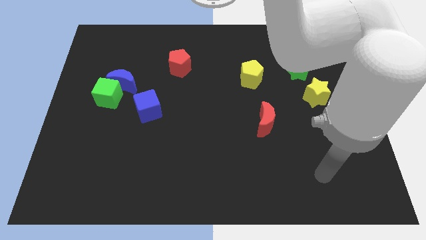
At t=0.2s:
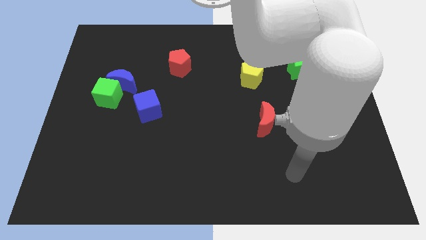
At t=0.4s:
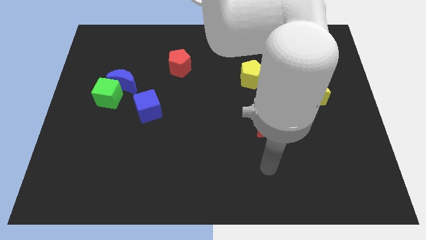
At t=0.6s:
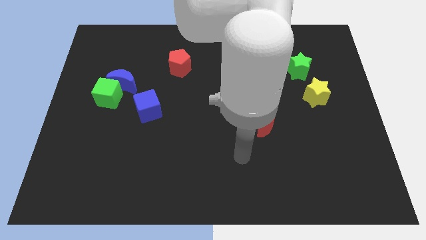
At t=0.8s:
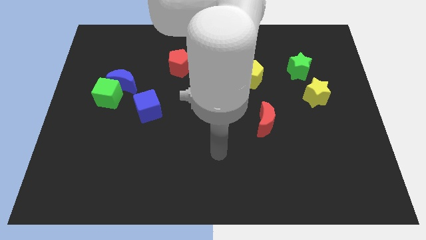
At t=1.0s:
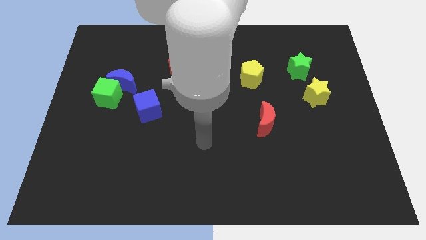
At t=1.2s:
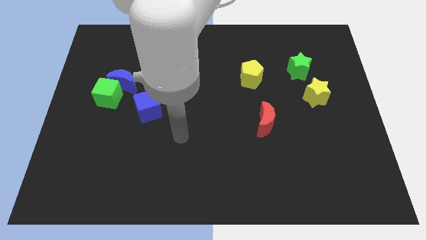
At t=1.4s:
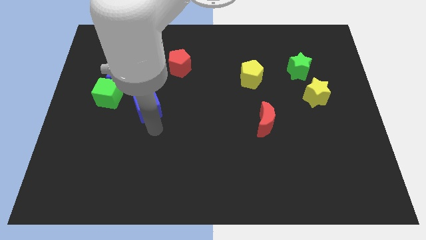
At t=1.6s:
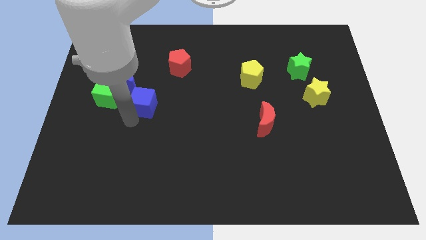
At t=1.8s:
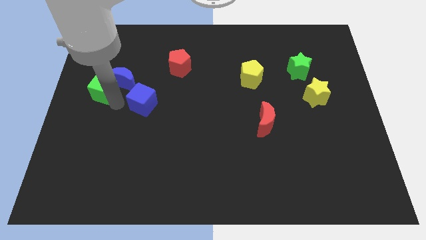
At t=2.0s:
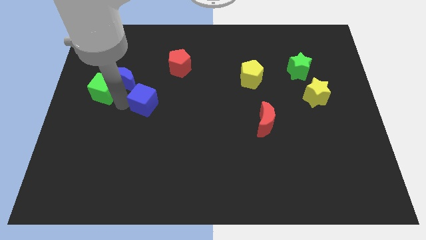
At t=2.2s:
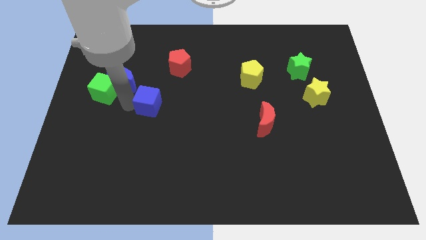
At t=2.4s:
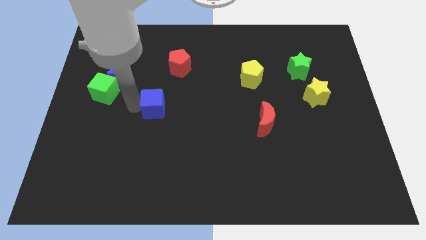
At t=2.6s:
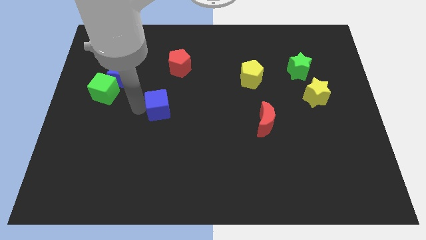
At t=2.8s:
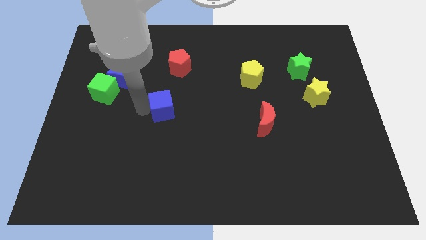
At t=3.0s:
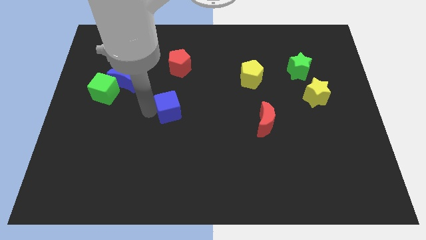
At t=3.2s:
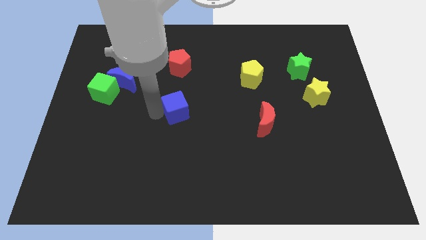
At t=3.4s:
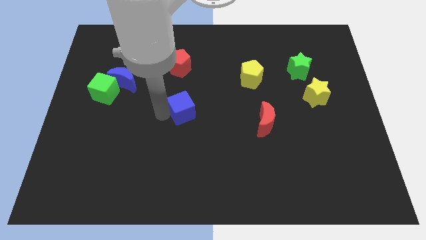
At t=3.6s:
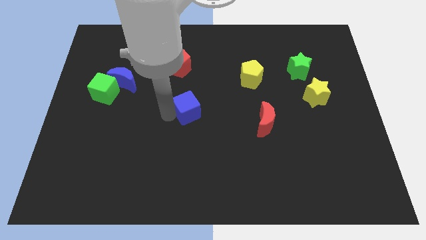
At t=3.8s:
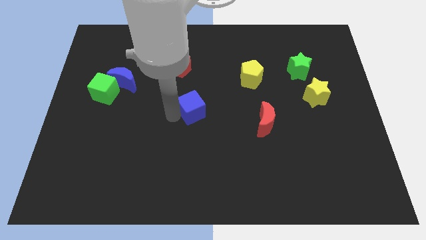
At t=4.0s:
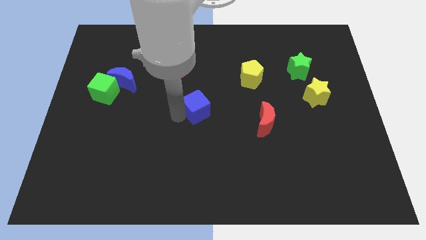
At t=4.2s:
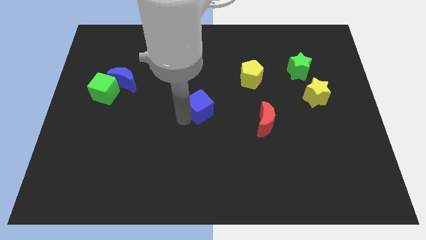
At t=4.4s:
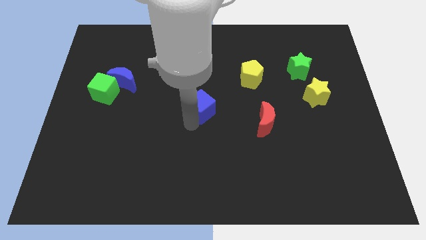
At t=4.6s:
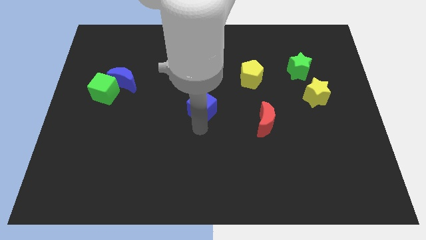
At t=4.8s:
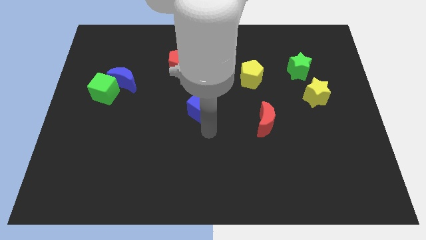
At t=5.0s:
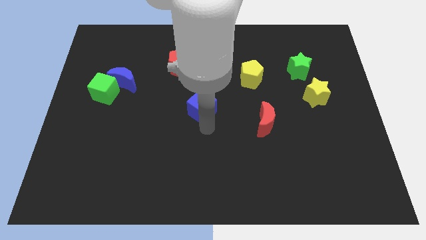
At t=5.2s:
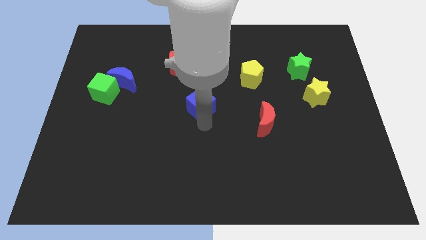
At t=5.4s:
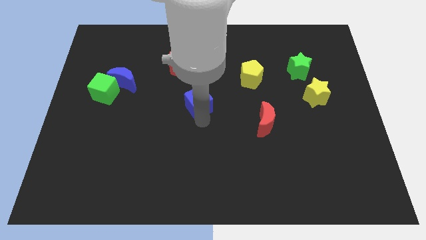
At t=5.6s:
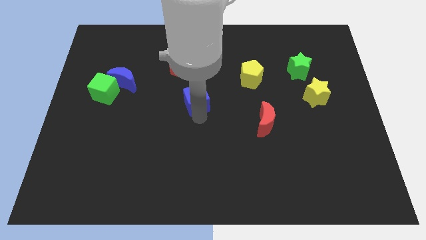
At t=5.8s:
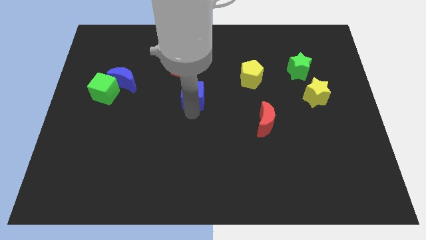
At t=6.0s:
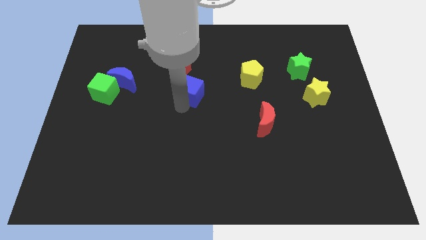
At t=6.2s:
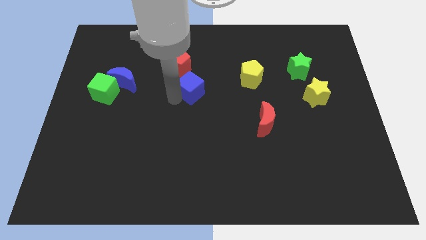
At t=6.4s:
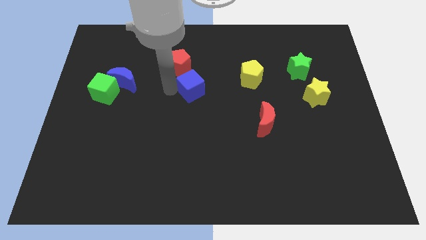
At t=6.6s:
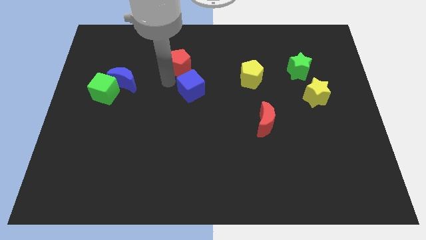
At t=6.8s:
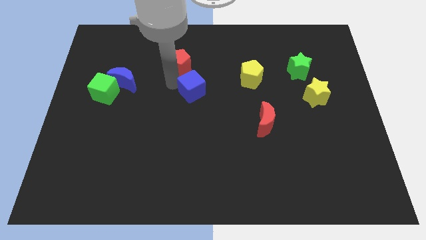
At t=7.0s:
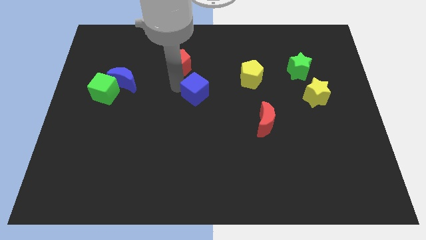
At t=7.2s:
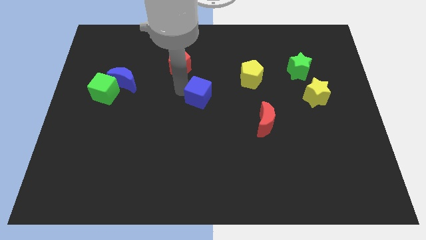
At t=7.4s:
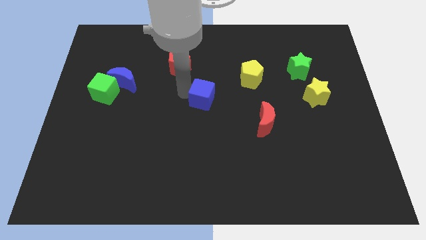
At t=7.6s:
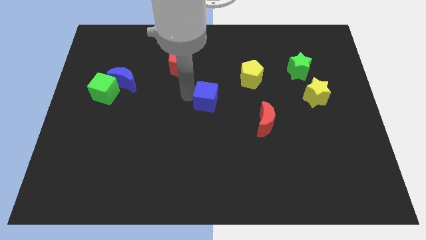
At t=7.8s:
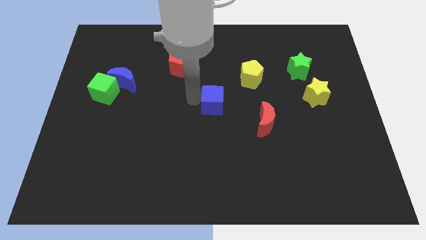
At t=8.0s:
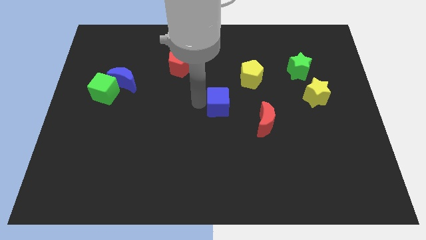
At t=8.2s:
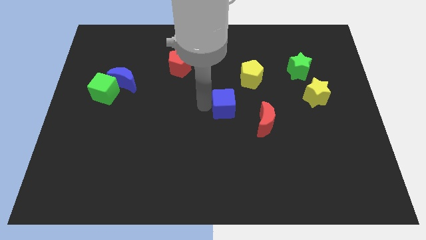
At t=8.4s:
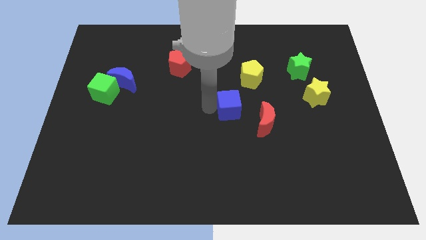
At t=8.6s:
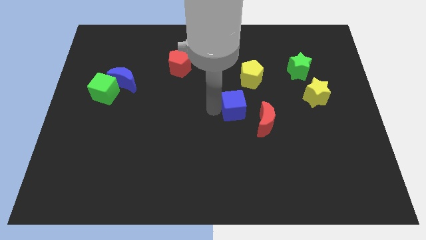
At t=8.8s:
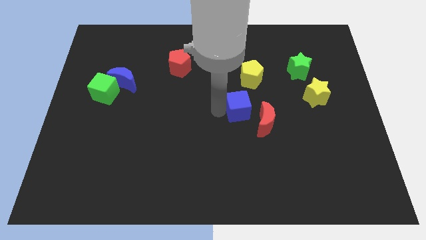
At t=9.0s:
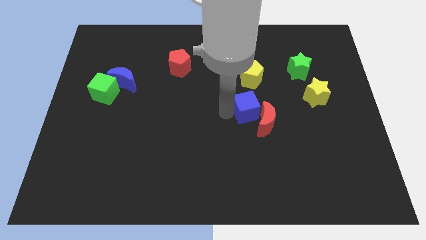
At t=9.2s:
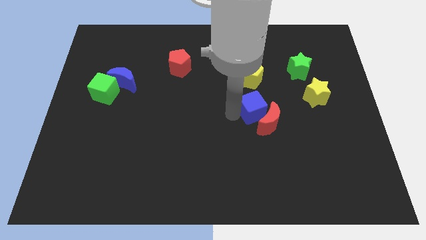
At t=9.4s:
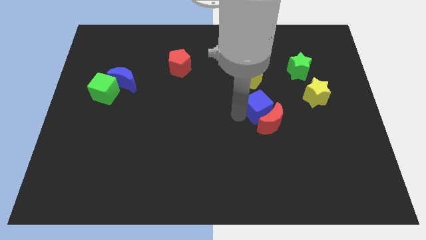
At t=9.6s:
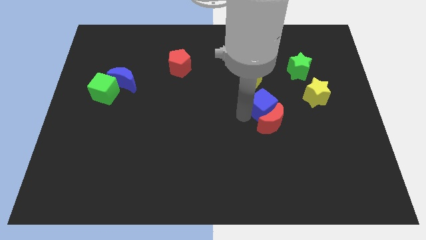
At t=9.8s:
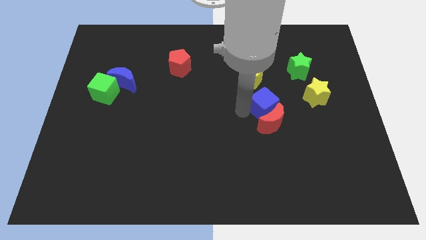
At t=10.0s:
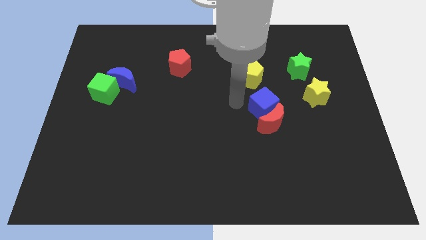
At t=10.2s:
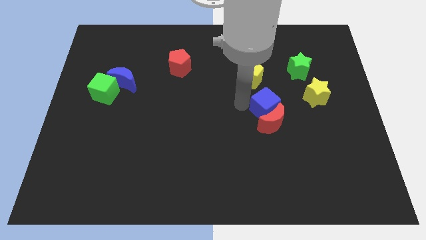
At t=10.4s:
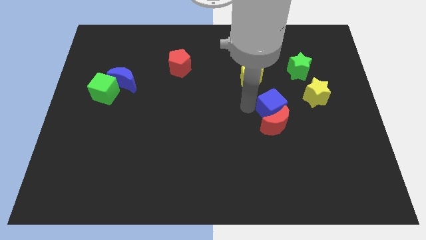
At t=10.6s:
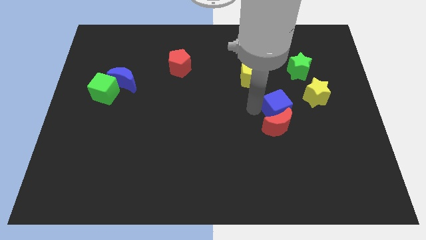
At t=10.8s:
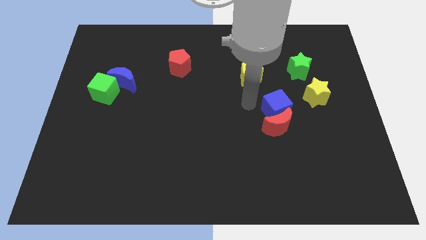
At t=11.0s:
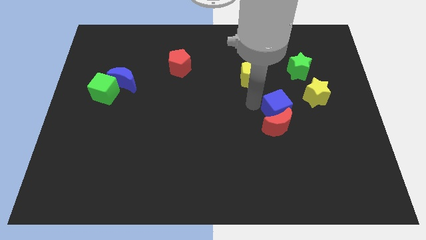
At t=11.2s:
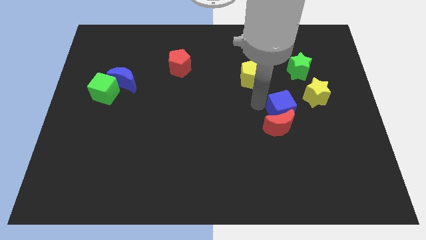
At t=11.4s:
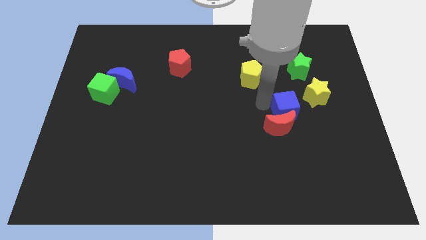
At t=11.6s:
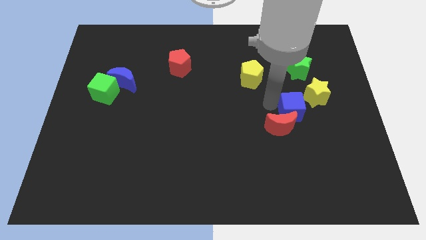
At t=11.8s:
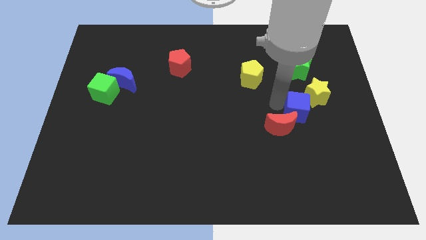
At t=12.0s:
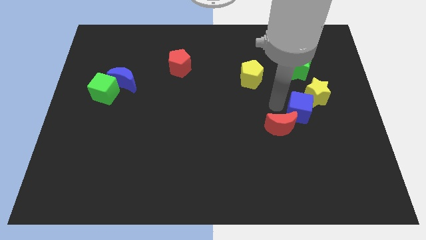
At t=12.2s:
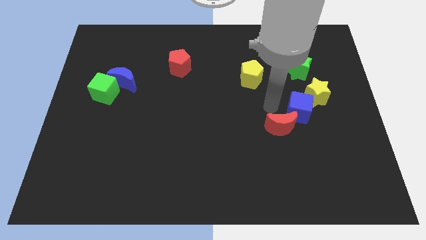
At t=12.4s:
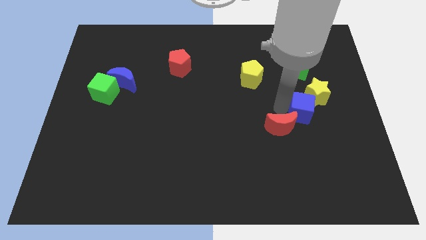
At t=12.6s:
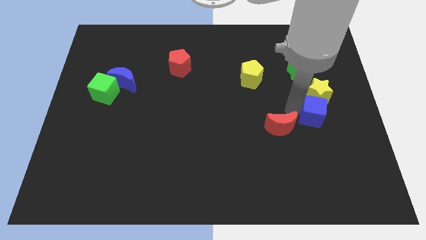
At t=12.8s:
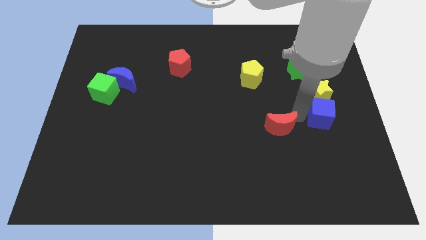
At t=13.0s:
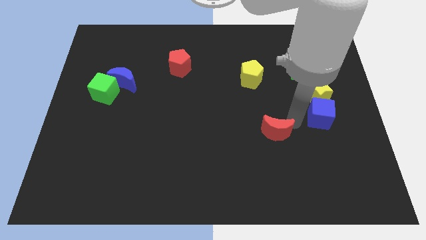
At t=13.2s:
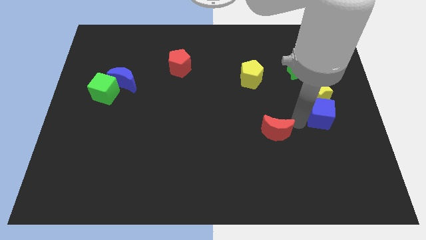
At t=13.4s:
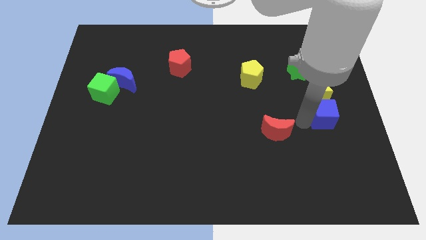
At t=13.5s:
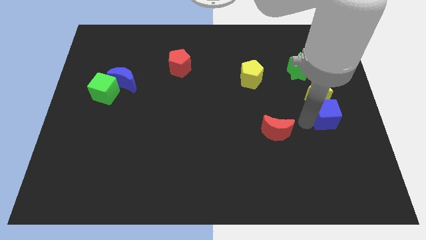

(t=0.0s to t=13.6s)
slide the blue cube to the right side of the board
